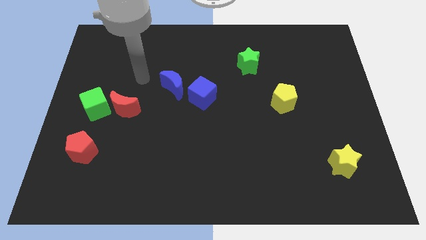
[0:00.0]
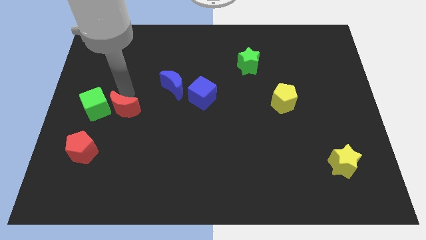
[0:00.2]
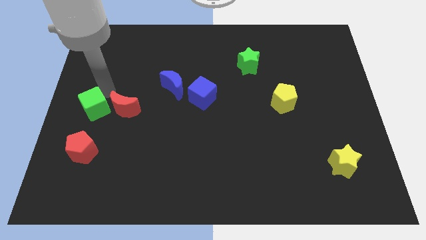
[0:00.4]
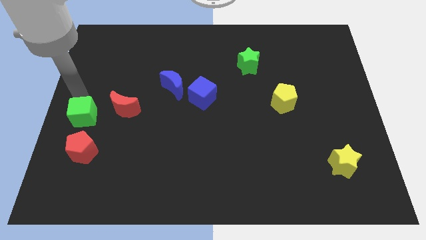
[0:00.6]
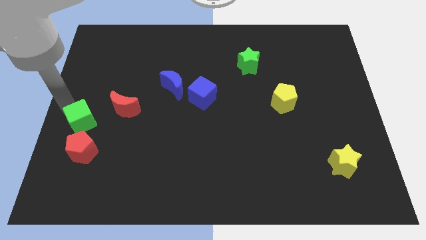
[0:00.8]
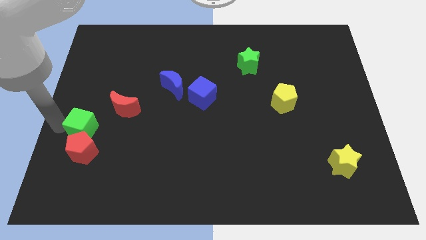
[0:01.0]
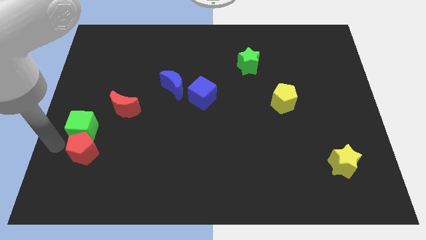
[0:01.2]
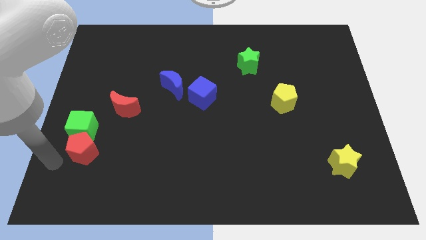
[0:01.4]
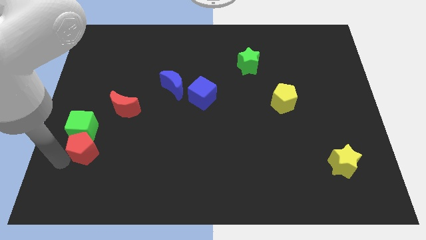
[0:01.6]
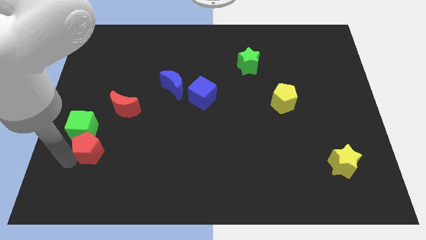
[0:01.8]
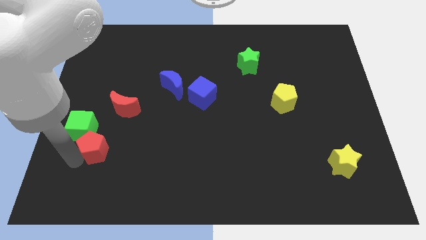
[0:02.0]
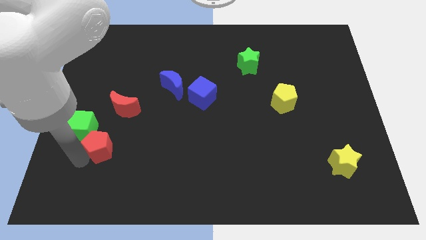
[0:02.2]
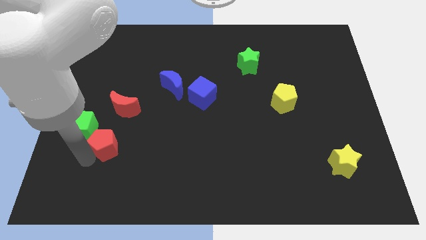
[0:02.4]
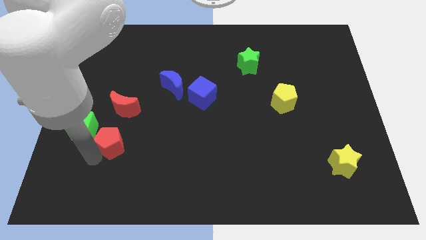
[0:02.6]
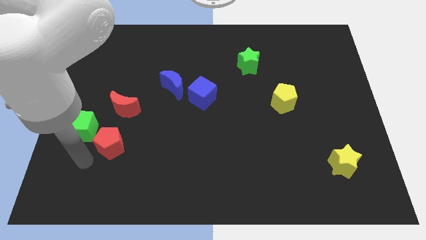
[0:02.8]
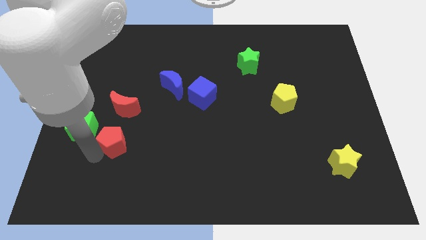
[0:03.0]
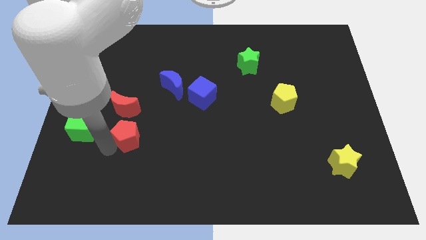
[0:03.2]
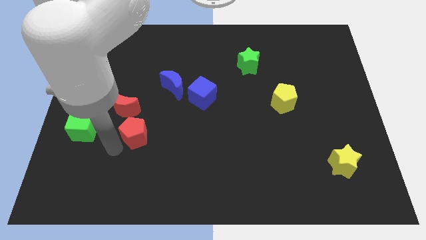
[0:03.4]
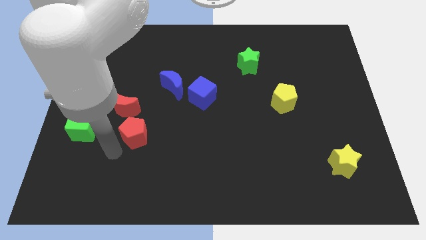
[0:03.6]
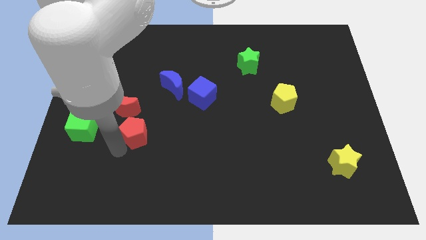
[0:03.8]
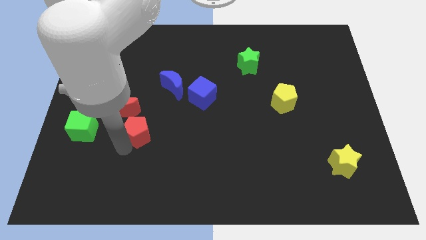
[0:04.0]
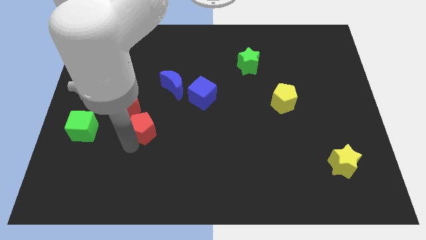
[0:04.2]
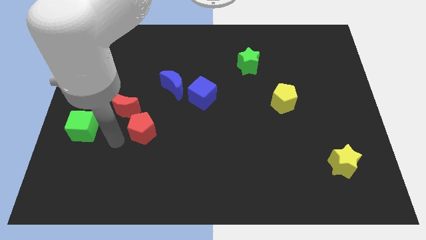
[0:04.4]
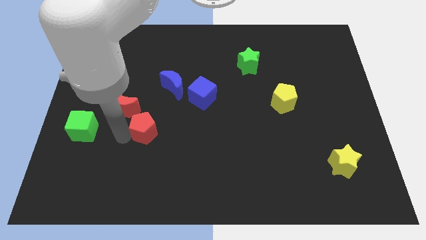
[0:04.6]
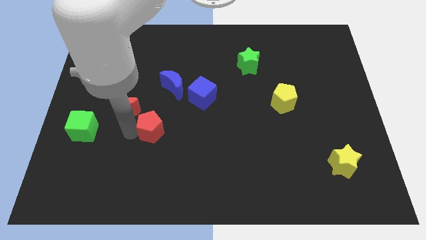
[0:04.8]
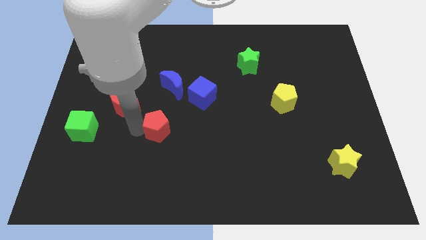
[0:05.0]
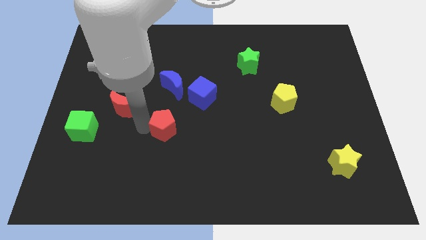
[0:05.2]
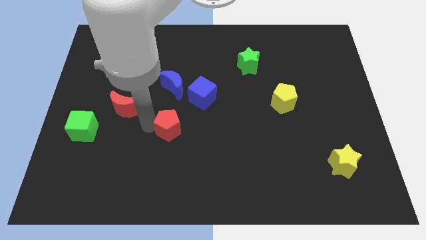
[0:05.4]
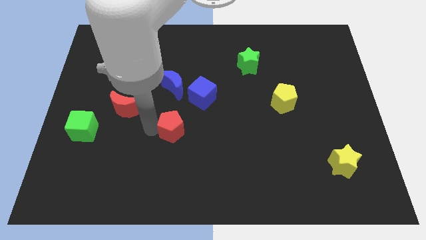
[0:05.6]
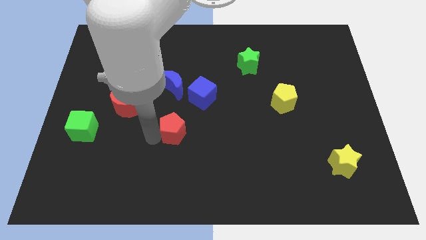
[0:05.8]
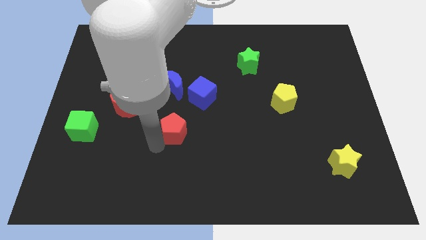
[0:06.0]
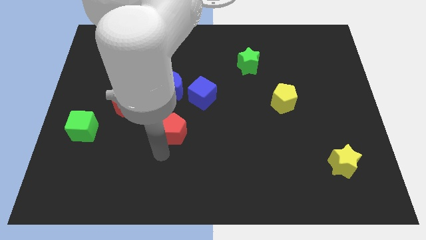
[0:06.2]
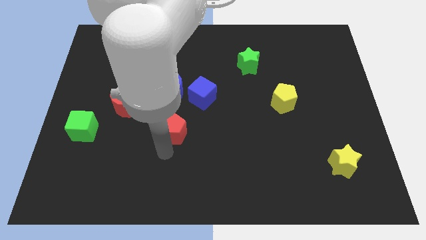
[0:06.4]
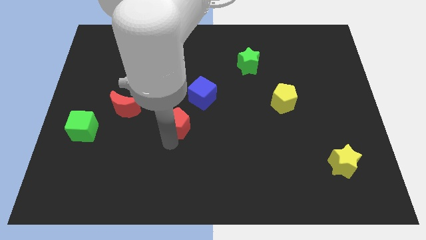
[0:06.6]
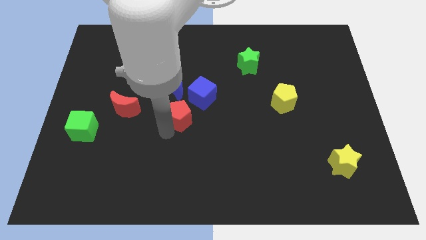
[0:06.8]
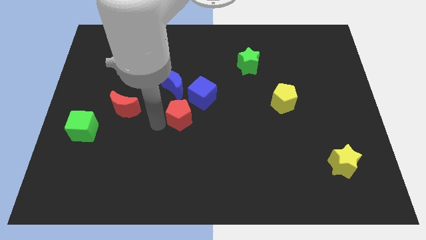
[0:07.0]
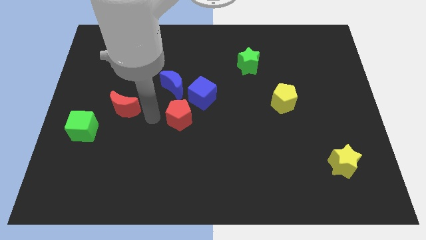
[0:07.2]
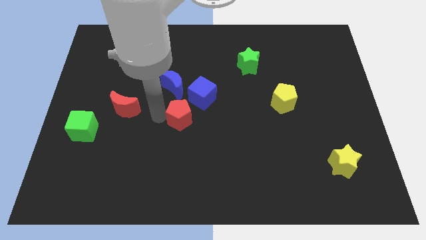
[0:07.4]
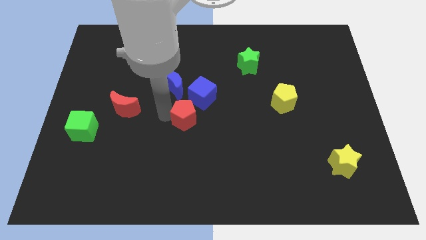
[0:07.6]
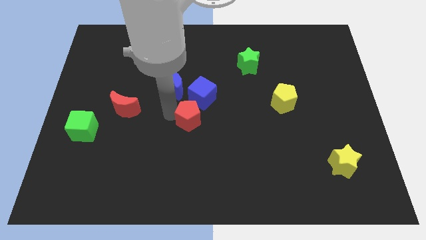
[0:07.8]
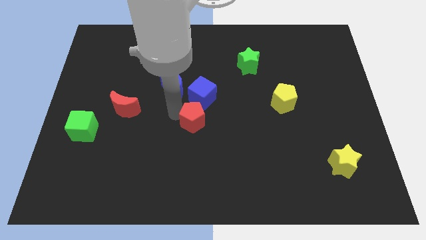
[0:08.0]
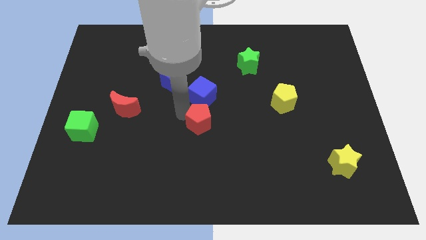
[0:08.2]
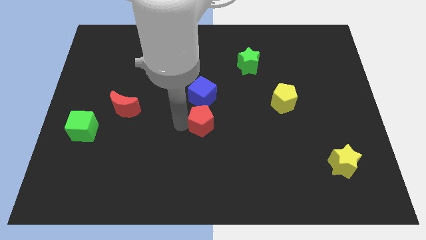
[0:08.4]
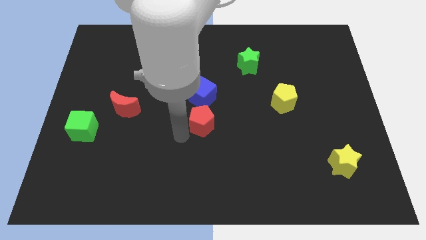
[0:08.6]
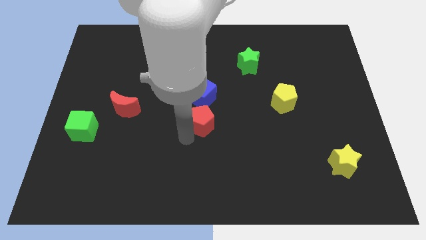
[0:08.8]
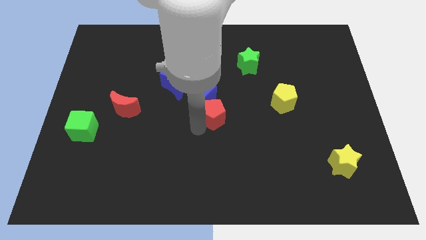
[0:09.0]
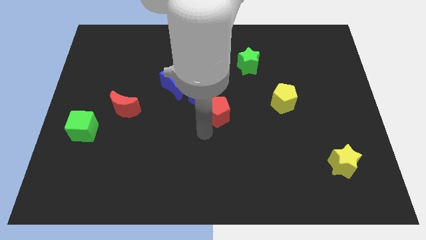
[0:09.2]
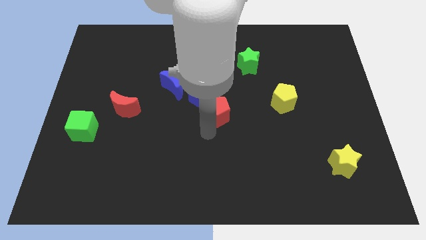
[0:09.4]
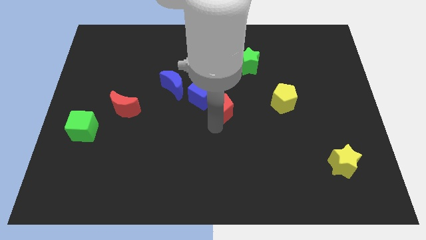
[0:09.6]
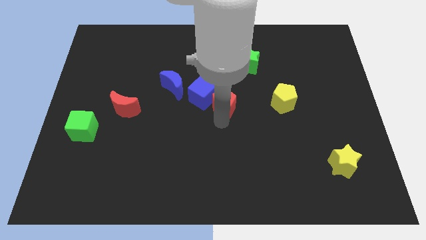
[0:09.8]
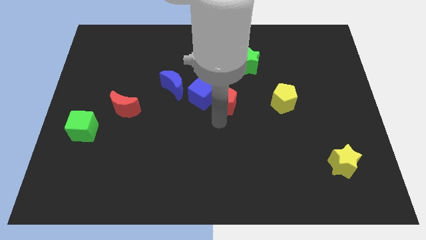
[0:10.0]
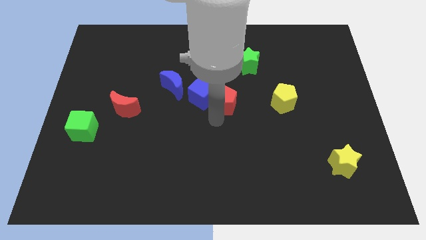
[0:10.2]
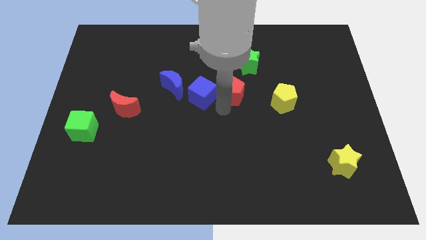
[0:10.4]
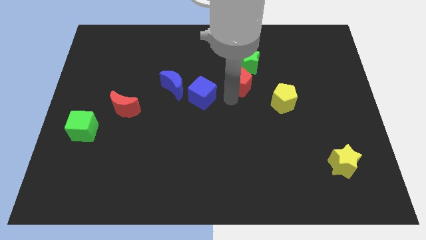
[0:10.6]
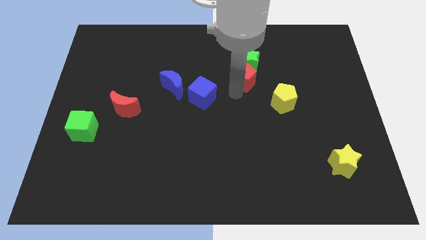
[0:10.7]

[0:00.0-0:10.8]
slide the red pentagon next to the green star

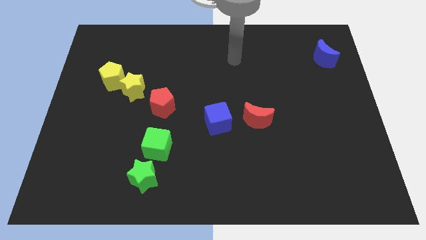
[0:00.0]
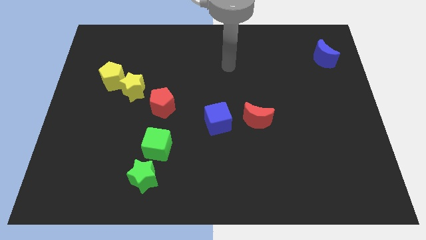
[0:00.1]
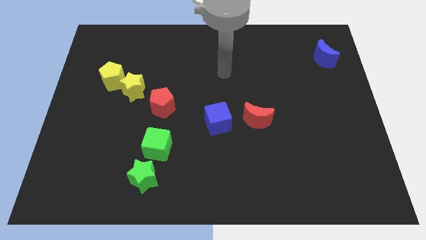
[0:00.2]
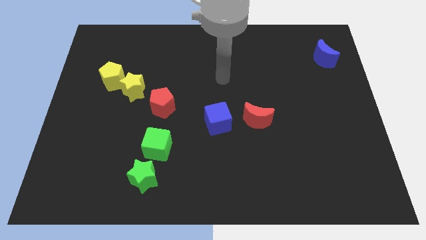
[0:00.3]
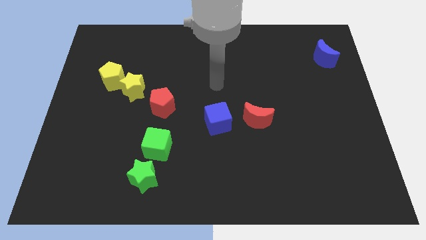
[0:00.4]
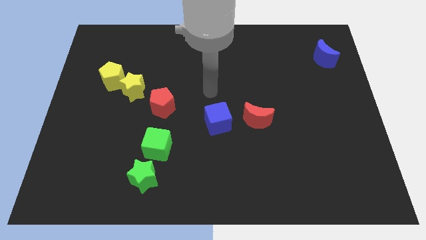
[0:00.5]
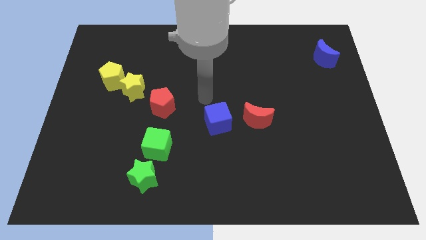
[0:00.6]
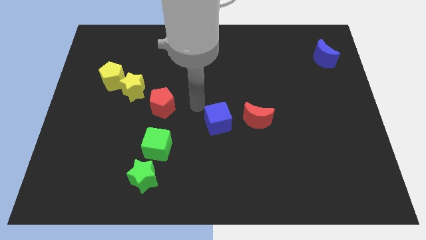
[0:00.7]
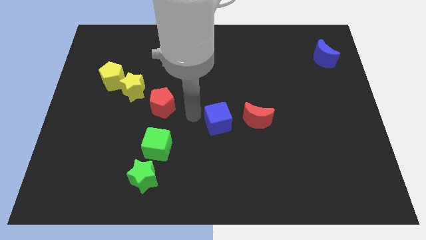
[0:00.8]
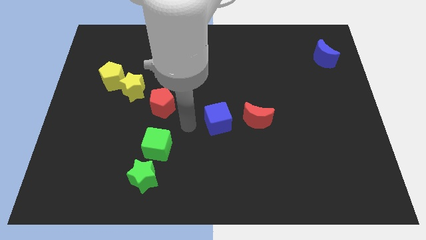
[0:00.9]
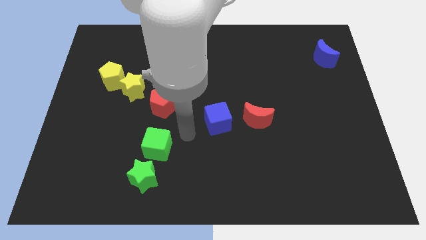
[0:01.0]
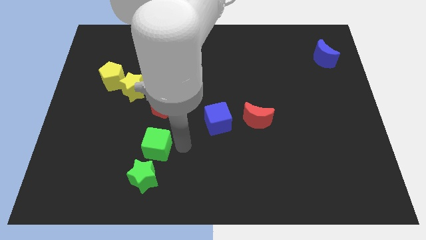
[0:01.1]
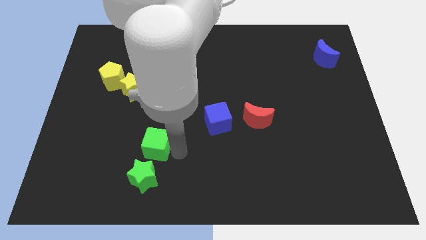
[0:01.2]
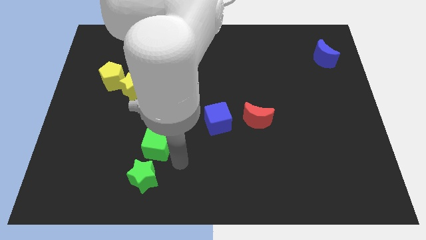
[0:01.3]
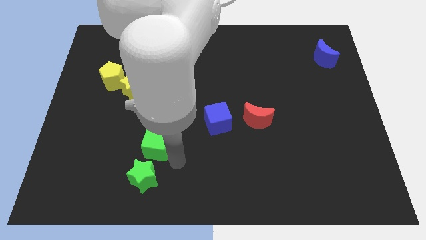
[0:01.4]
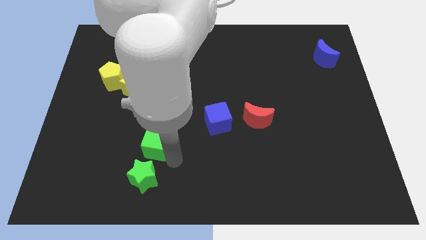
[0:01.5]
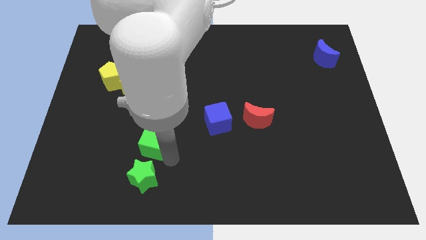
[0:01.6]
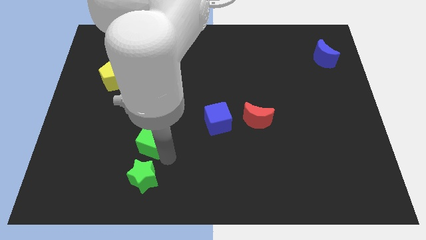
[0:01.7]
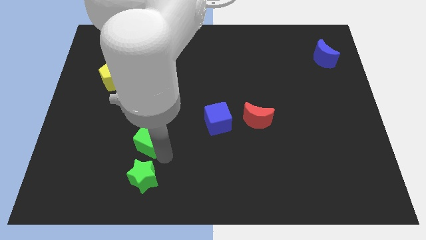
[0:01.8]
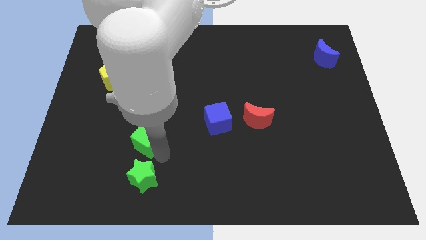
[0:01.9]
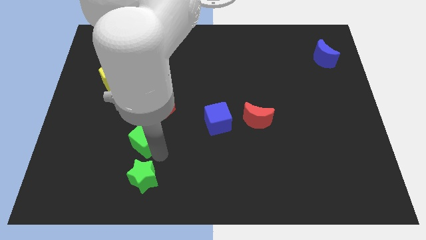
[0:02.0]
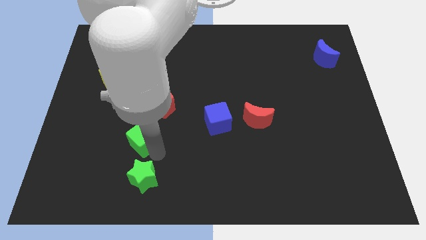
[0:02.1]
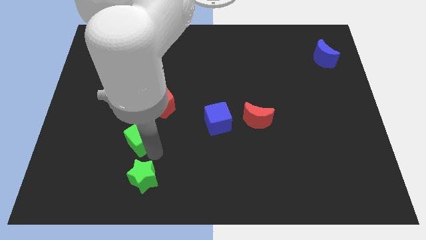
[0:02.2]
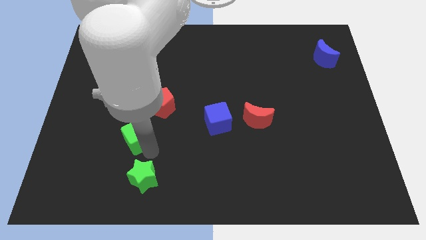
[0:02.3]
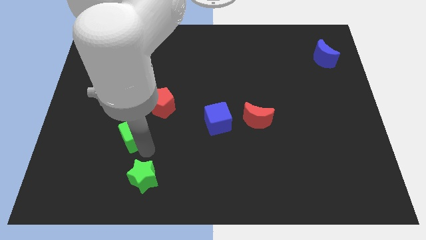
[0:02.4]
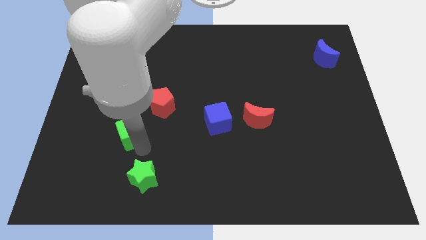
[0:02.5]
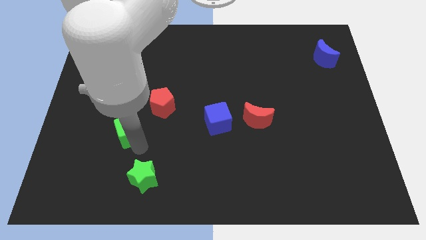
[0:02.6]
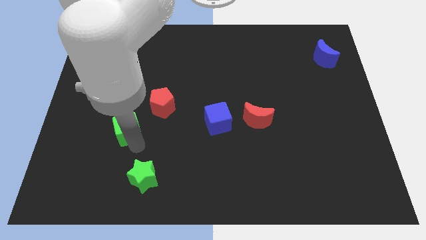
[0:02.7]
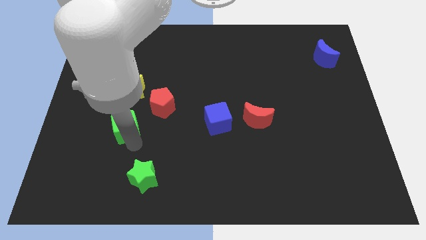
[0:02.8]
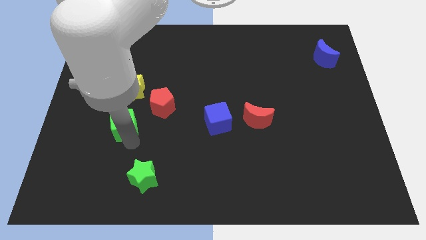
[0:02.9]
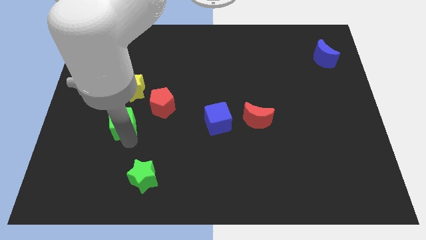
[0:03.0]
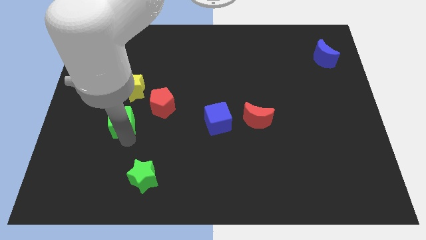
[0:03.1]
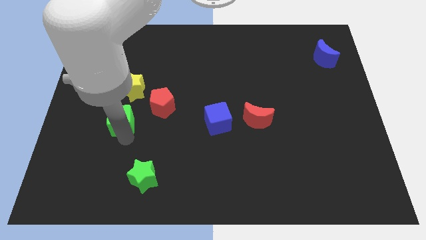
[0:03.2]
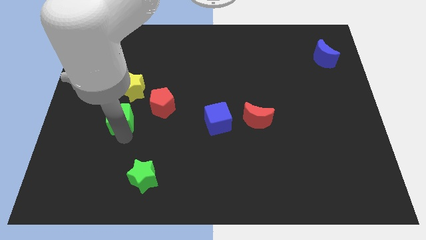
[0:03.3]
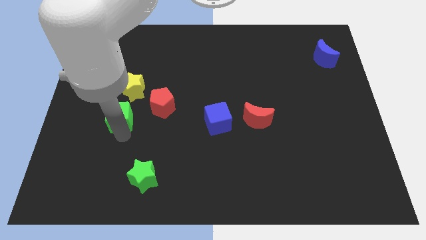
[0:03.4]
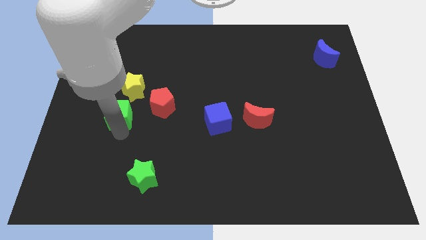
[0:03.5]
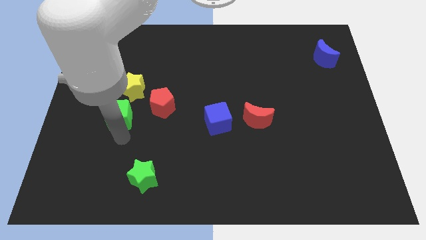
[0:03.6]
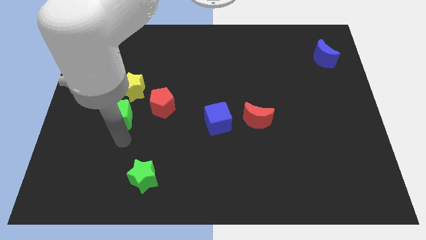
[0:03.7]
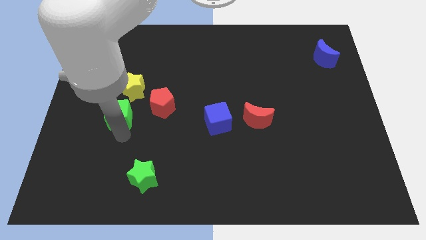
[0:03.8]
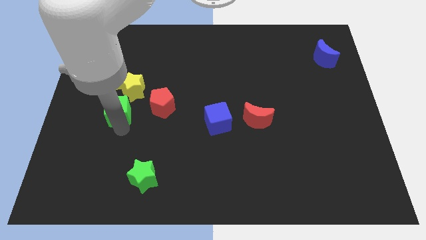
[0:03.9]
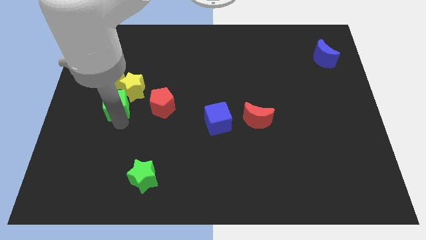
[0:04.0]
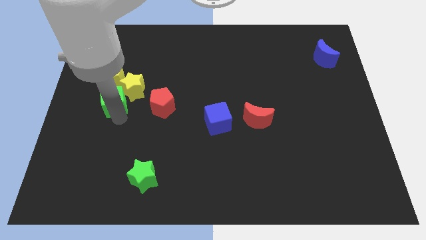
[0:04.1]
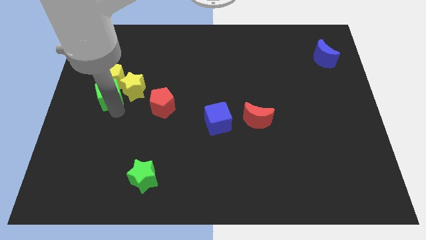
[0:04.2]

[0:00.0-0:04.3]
slide the green cube close to the yellow pentagon
